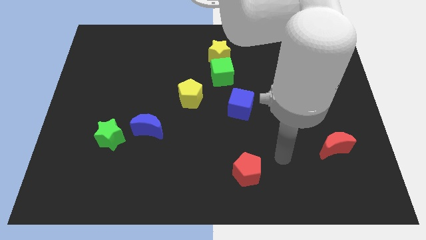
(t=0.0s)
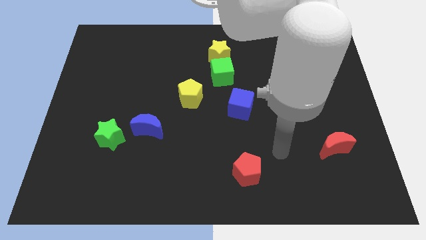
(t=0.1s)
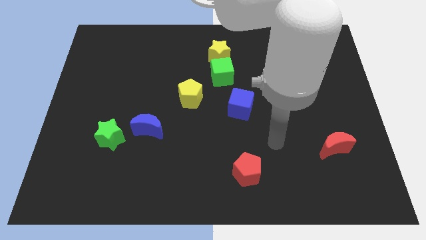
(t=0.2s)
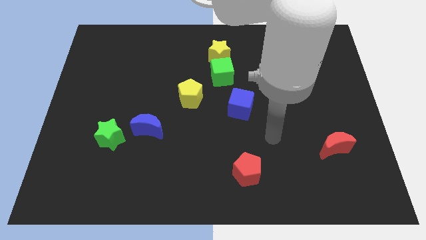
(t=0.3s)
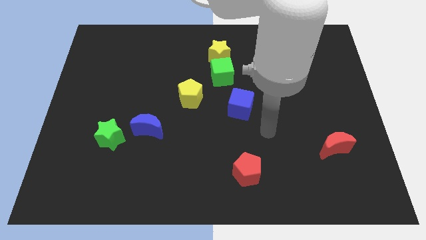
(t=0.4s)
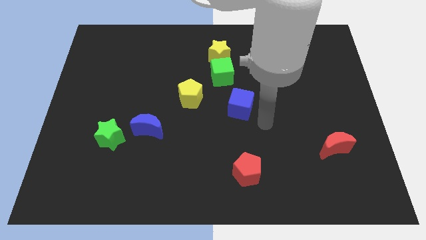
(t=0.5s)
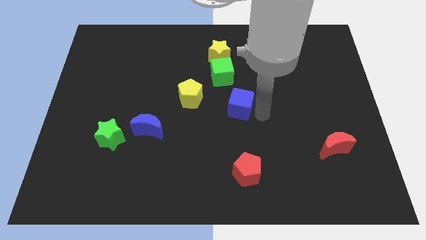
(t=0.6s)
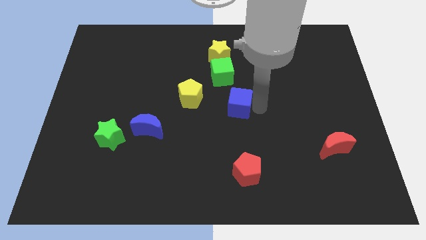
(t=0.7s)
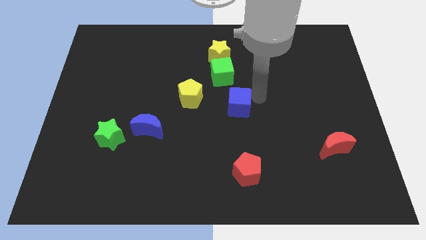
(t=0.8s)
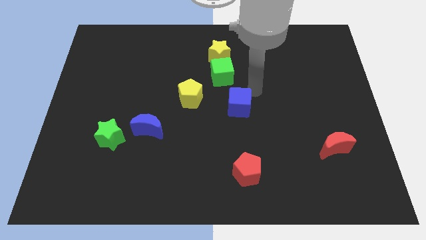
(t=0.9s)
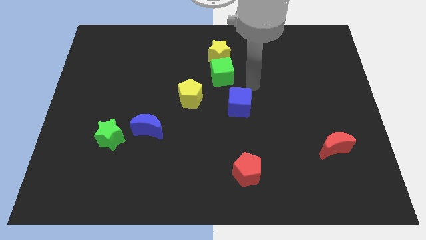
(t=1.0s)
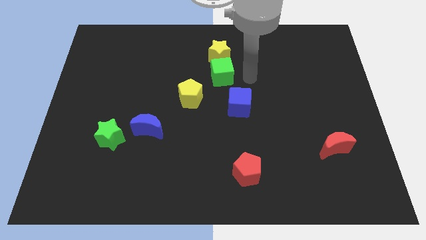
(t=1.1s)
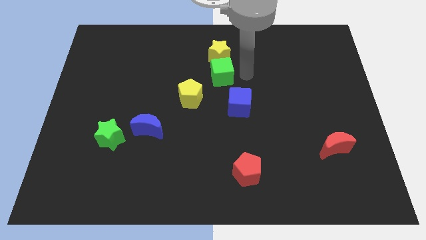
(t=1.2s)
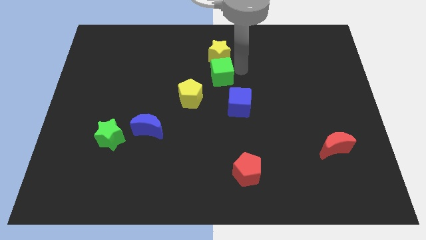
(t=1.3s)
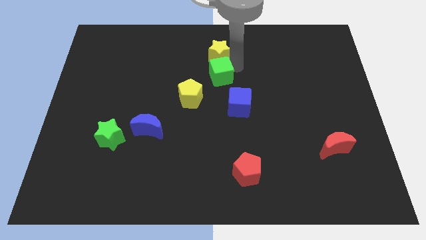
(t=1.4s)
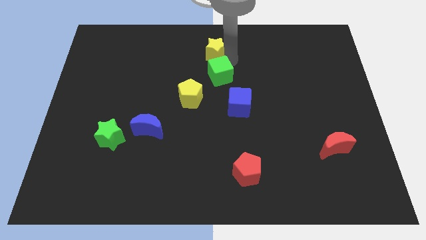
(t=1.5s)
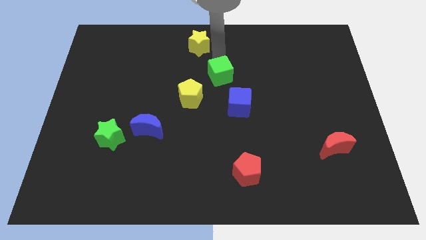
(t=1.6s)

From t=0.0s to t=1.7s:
move the green cube away from the yellow star

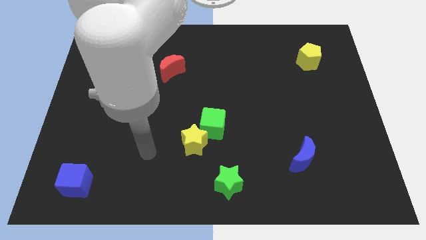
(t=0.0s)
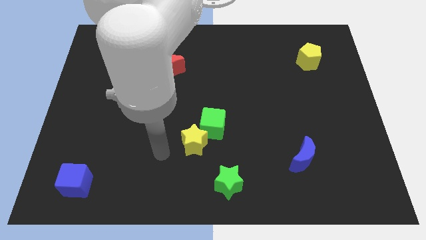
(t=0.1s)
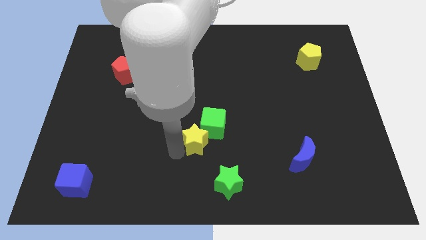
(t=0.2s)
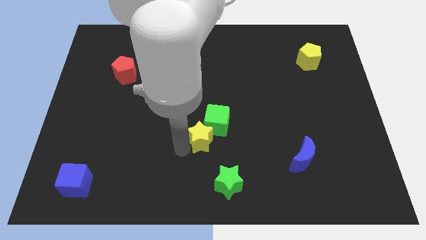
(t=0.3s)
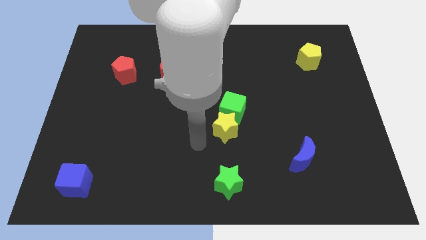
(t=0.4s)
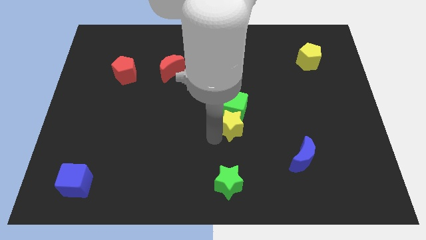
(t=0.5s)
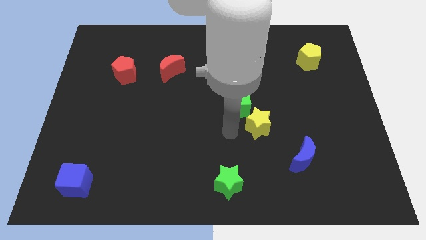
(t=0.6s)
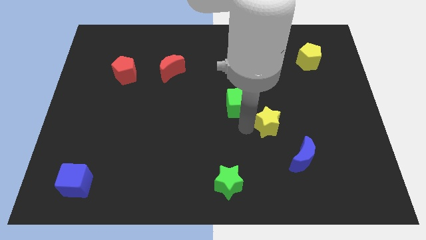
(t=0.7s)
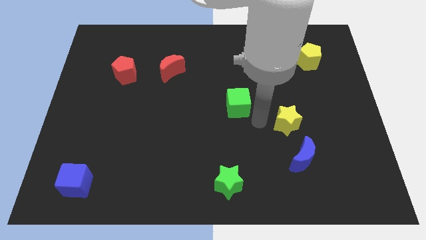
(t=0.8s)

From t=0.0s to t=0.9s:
separate the green cube from the yellow star

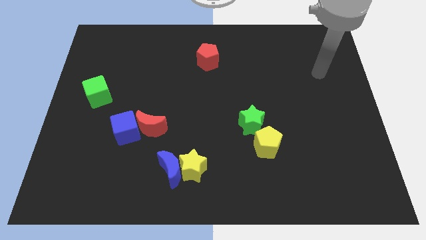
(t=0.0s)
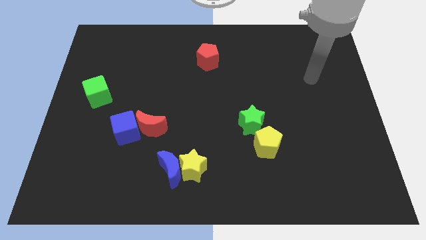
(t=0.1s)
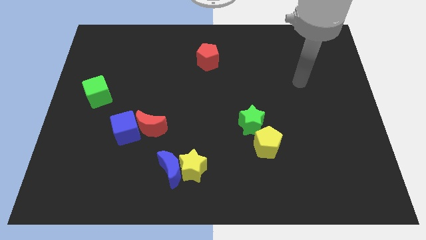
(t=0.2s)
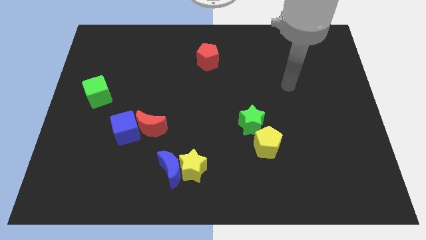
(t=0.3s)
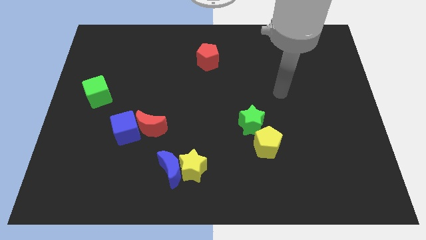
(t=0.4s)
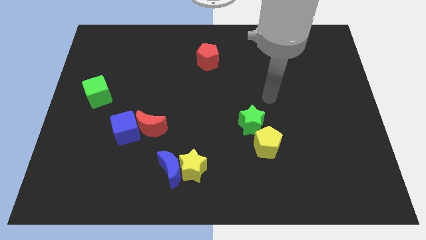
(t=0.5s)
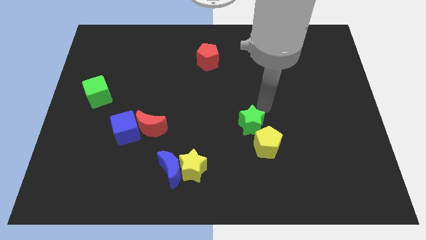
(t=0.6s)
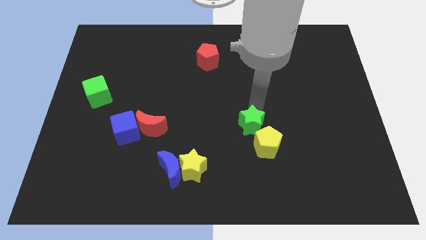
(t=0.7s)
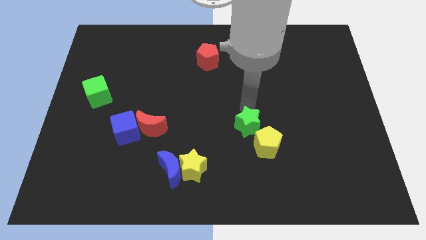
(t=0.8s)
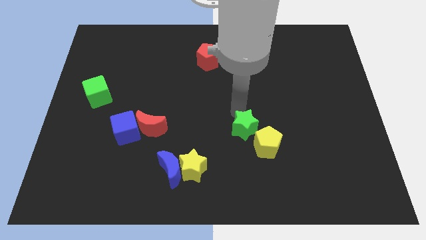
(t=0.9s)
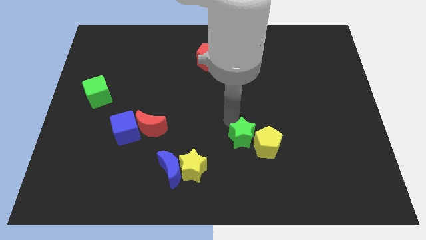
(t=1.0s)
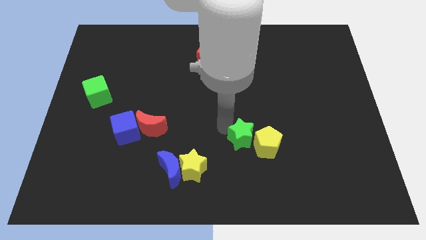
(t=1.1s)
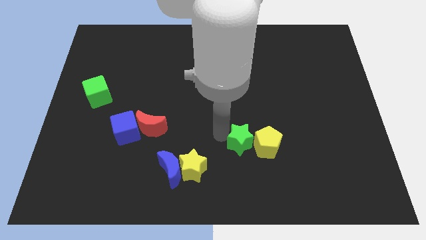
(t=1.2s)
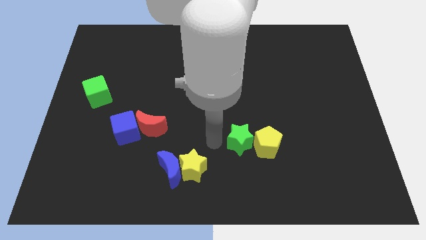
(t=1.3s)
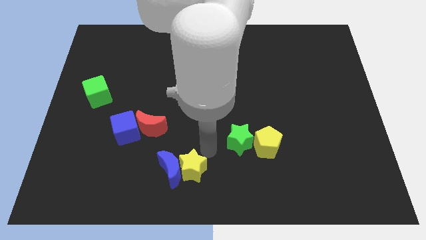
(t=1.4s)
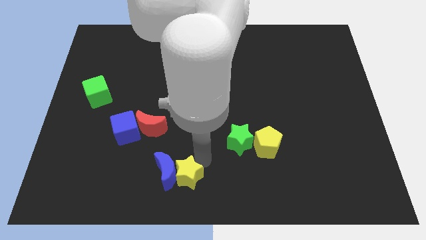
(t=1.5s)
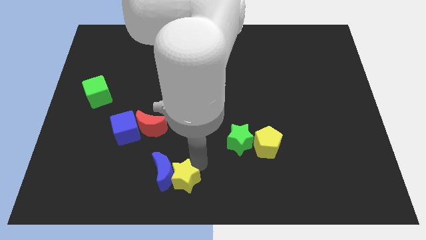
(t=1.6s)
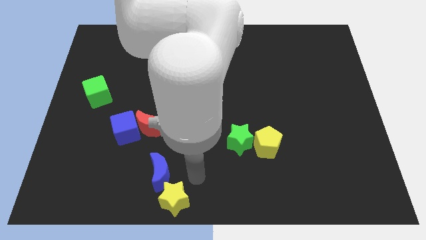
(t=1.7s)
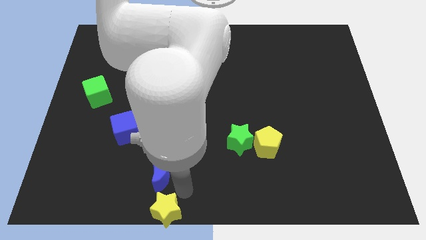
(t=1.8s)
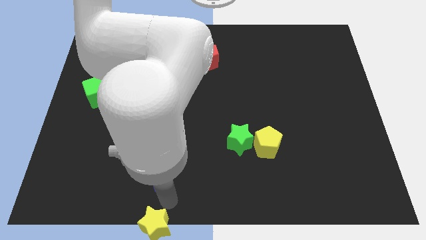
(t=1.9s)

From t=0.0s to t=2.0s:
move the blue moon away from the yellow star

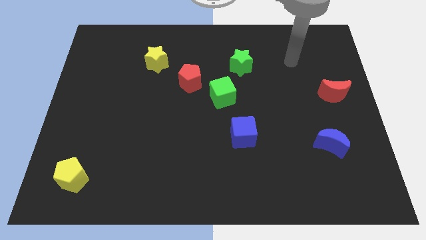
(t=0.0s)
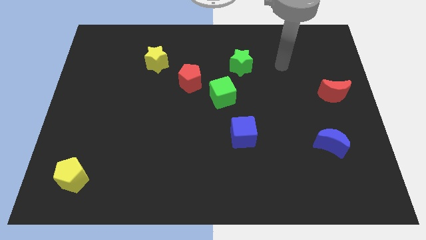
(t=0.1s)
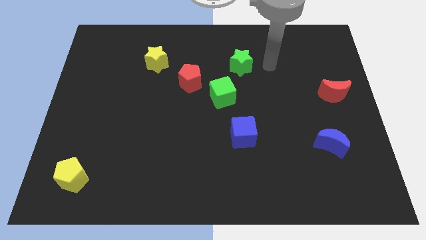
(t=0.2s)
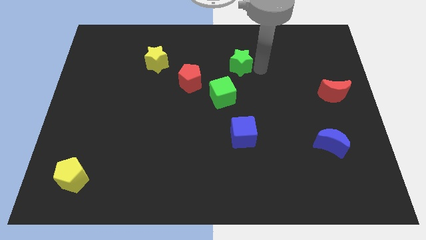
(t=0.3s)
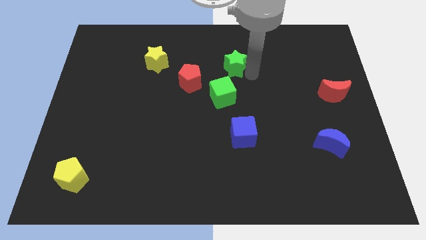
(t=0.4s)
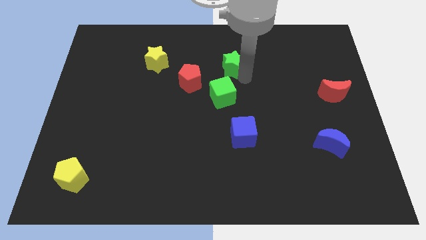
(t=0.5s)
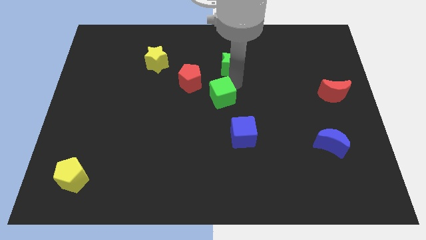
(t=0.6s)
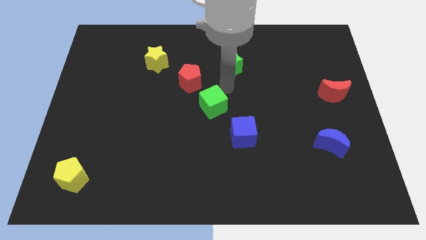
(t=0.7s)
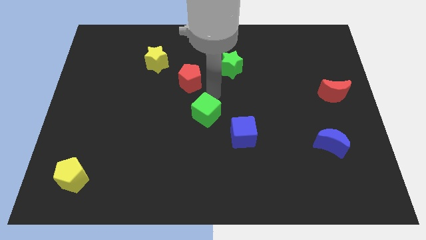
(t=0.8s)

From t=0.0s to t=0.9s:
move the red pentagon away from the green cube

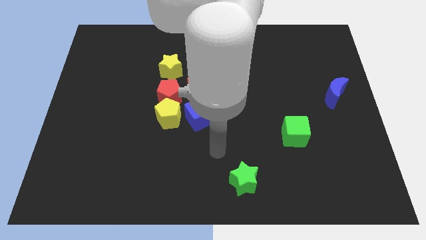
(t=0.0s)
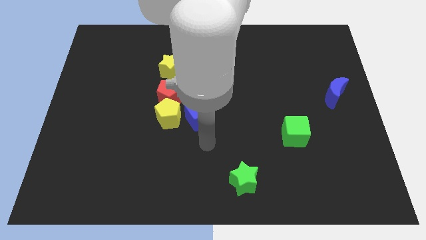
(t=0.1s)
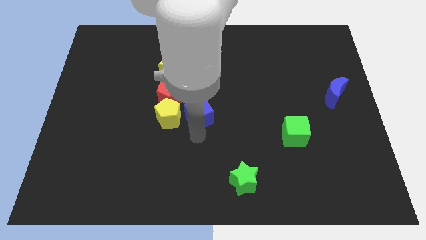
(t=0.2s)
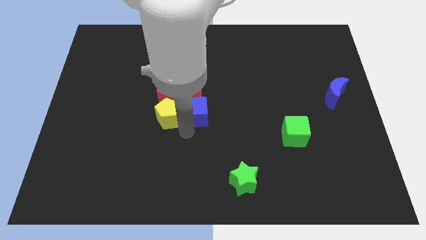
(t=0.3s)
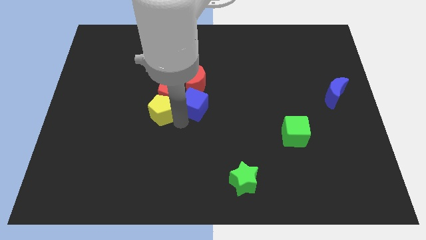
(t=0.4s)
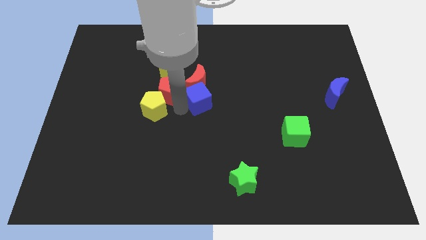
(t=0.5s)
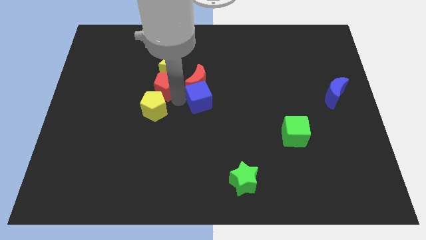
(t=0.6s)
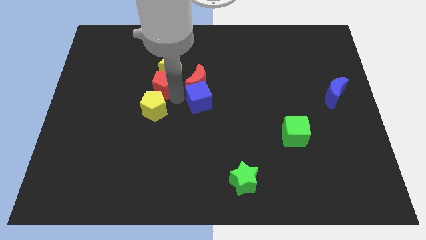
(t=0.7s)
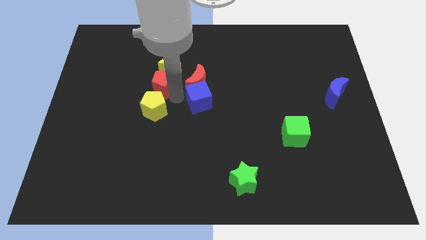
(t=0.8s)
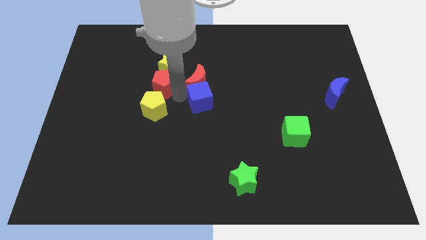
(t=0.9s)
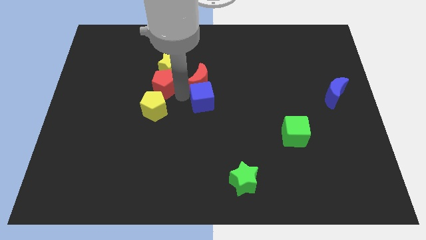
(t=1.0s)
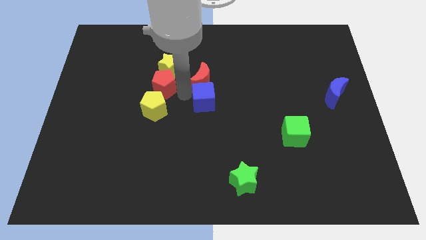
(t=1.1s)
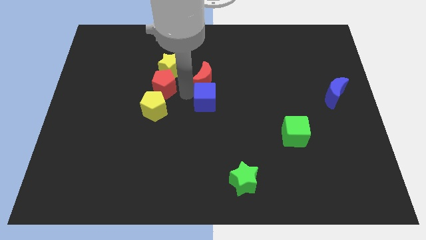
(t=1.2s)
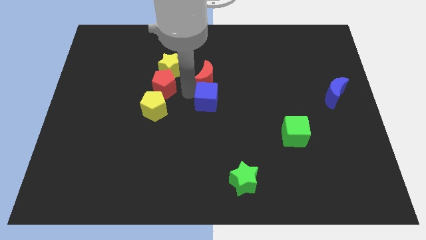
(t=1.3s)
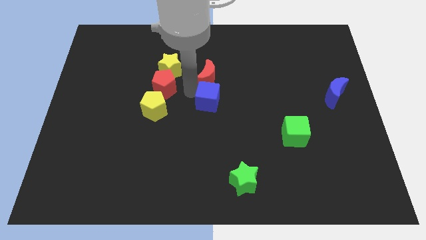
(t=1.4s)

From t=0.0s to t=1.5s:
move the red moon away from the blue cube, red pentagon, and yellow pentagon

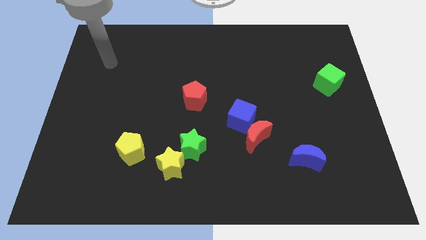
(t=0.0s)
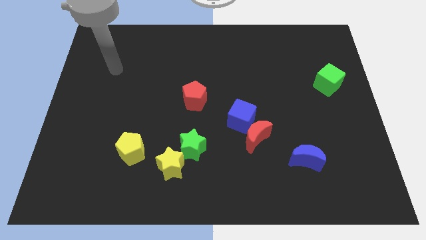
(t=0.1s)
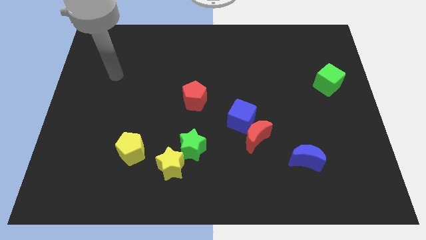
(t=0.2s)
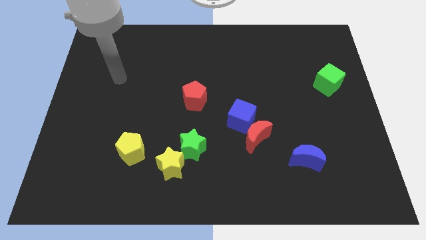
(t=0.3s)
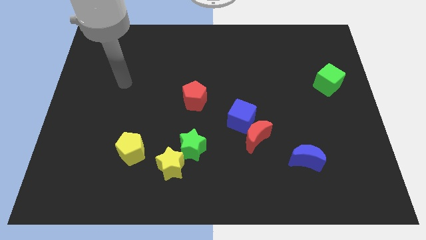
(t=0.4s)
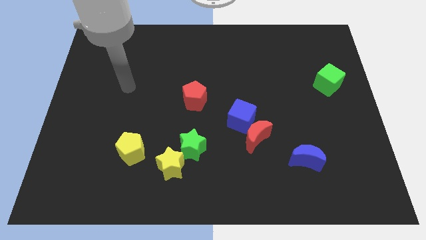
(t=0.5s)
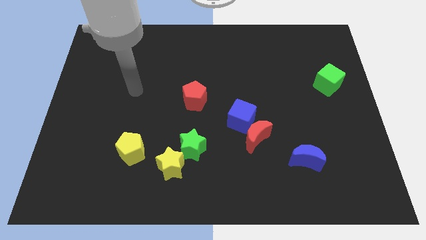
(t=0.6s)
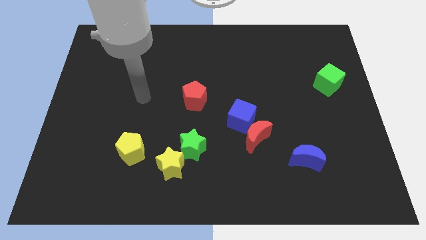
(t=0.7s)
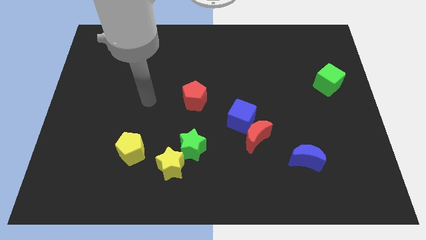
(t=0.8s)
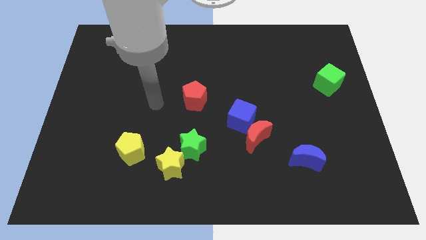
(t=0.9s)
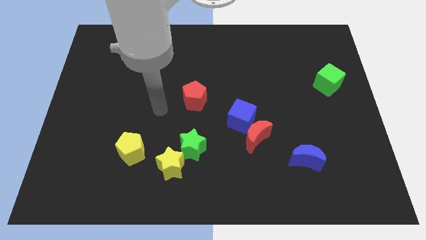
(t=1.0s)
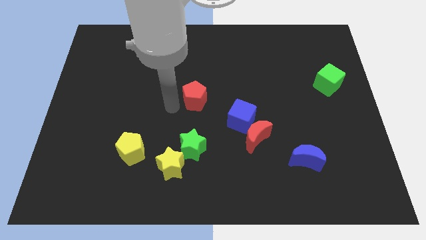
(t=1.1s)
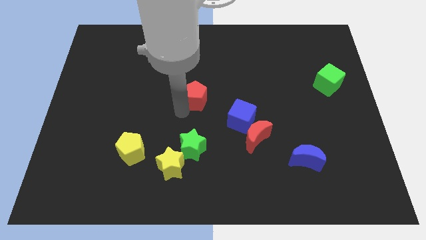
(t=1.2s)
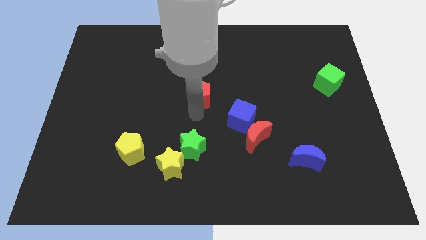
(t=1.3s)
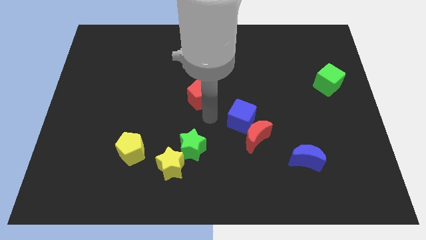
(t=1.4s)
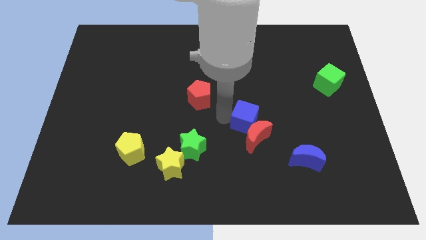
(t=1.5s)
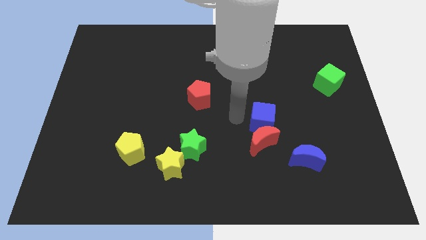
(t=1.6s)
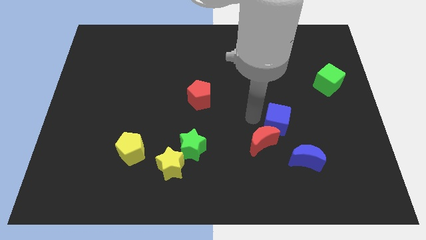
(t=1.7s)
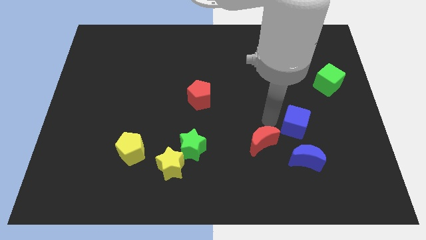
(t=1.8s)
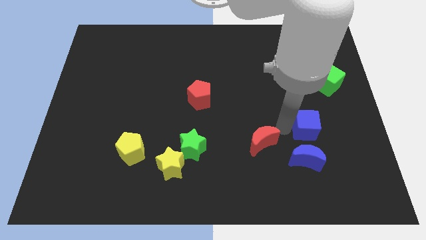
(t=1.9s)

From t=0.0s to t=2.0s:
pull the red moon apart from the blue cube

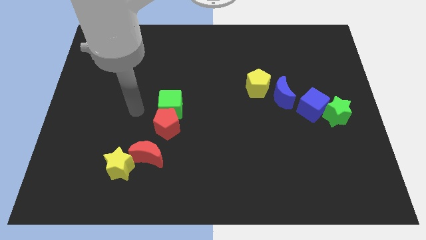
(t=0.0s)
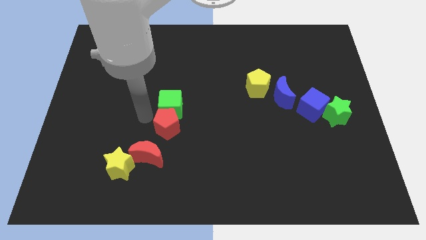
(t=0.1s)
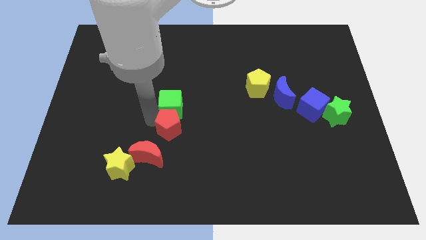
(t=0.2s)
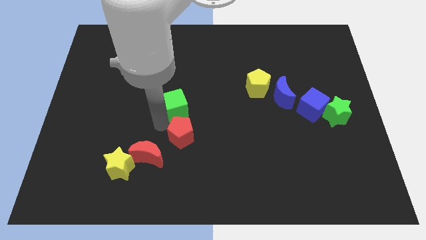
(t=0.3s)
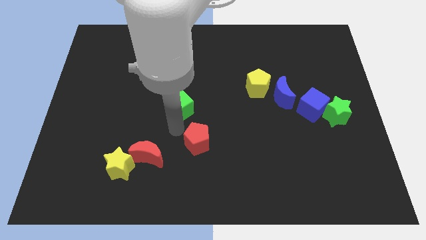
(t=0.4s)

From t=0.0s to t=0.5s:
move the green cube away from the red pentagon
